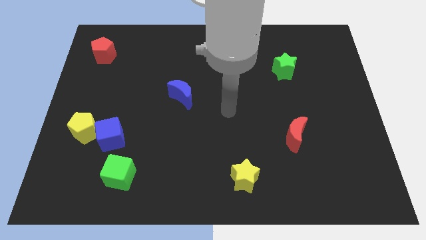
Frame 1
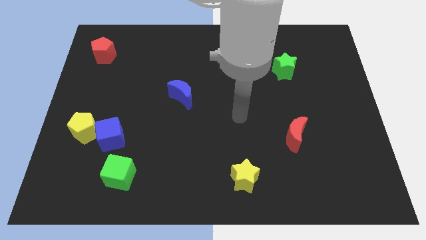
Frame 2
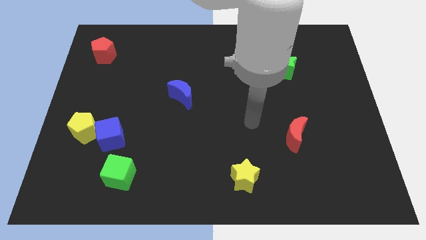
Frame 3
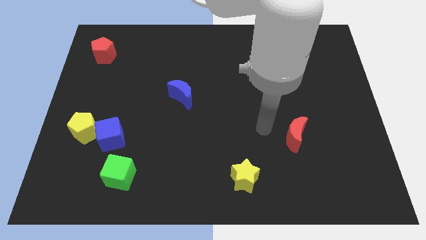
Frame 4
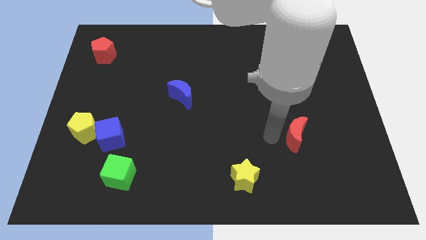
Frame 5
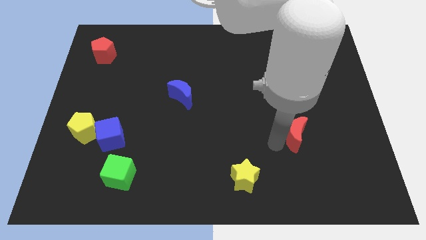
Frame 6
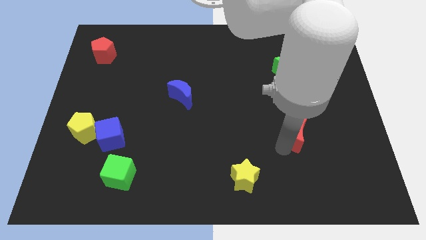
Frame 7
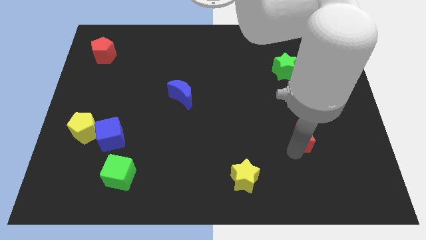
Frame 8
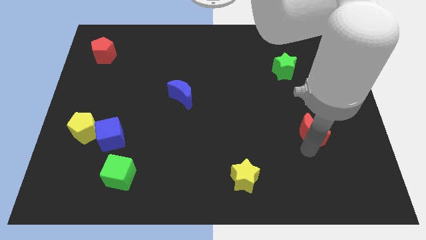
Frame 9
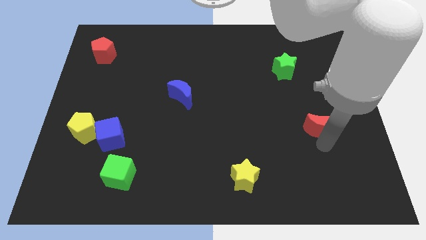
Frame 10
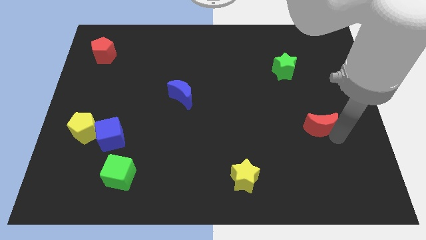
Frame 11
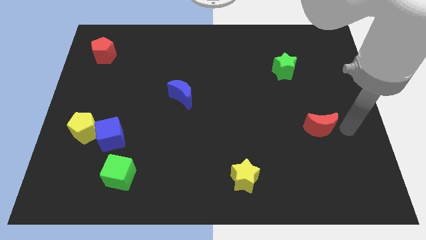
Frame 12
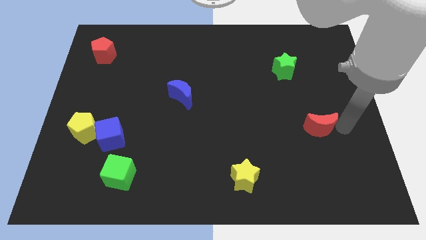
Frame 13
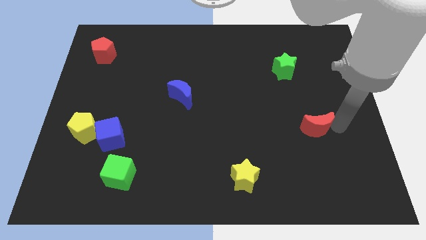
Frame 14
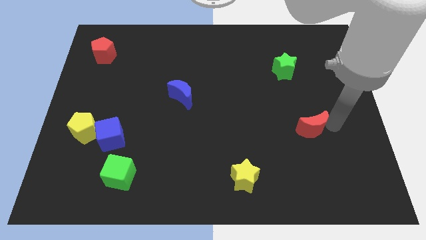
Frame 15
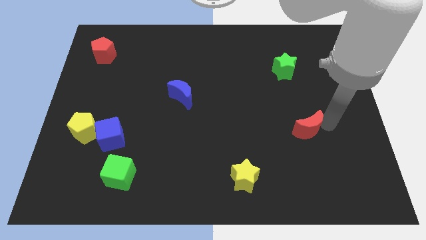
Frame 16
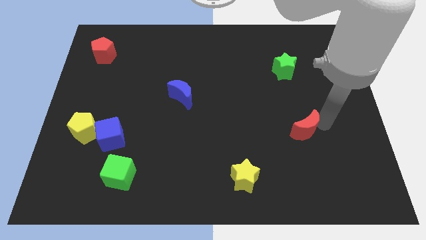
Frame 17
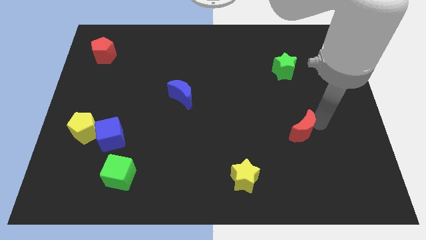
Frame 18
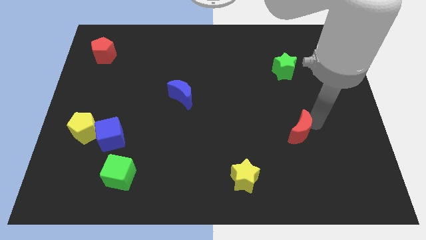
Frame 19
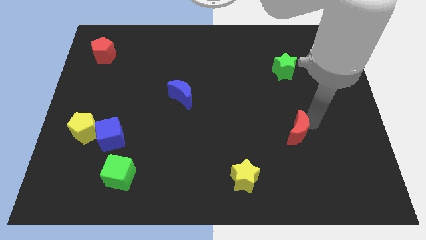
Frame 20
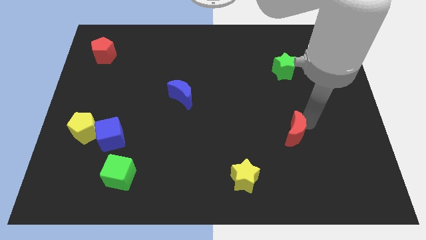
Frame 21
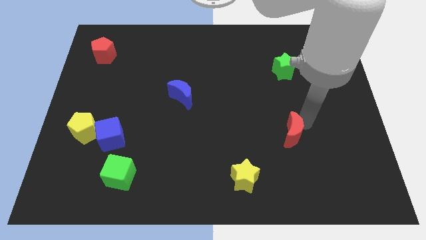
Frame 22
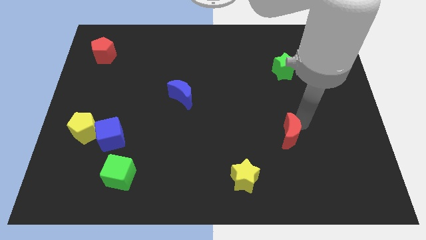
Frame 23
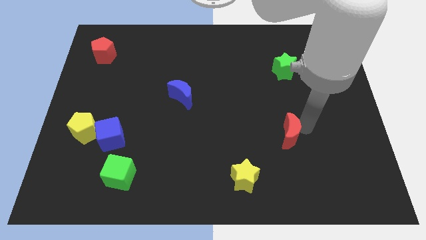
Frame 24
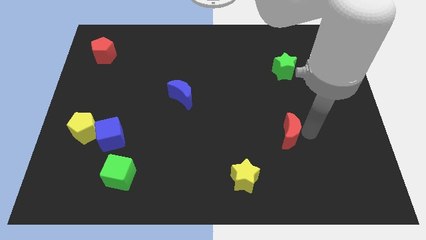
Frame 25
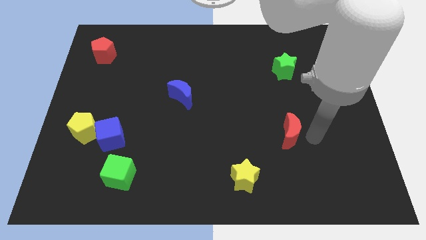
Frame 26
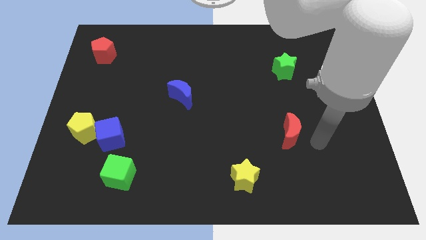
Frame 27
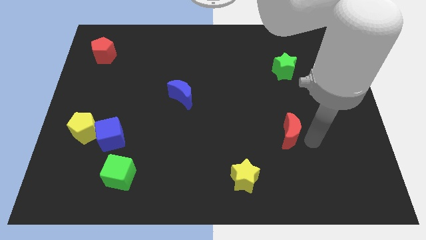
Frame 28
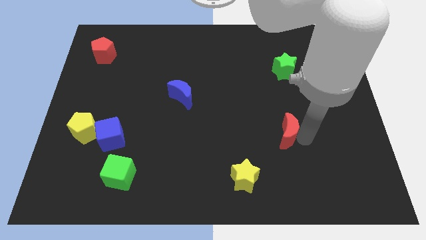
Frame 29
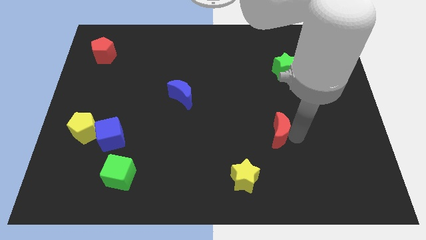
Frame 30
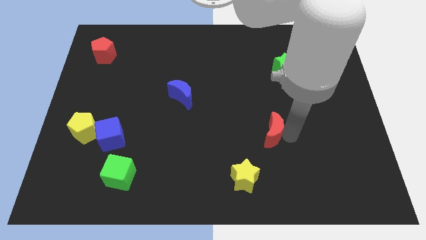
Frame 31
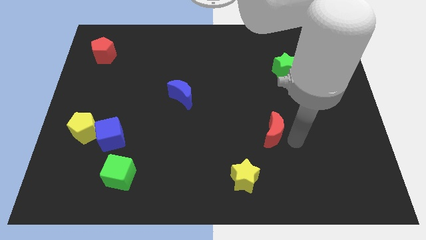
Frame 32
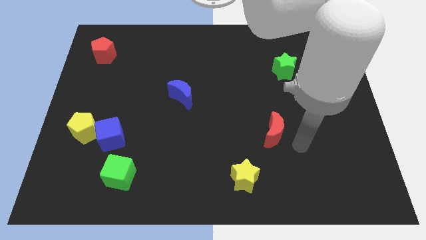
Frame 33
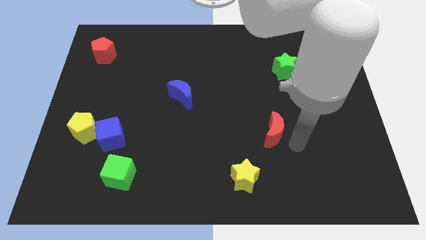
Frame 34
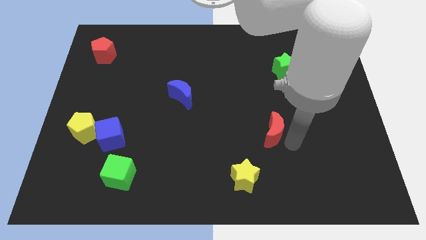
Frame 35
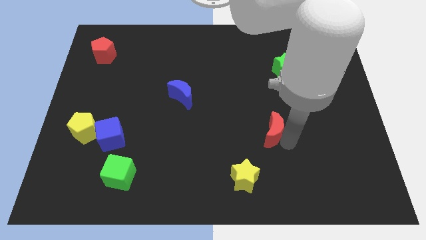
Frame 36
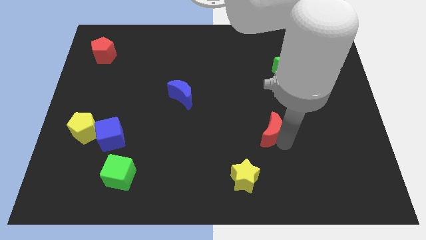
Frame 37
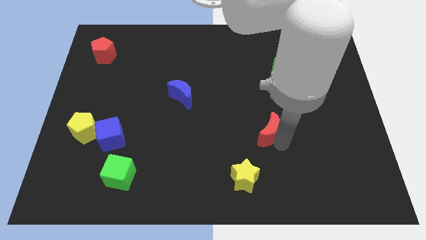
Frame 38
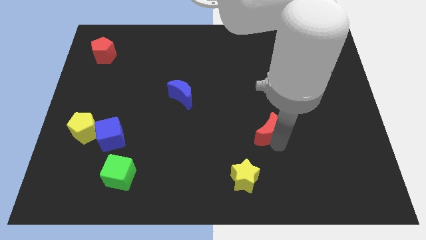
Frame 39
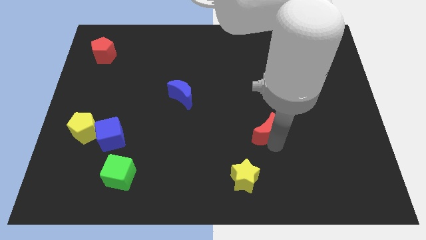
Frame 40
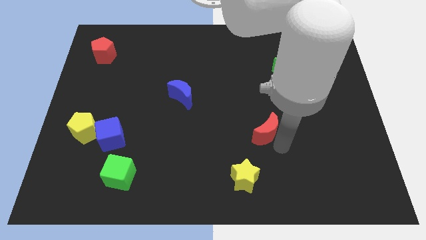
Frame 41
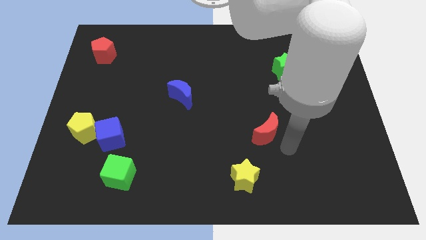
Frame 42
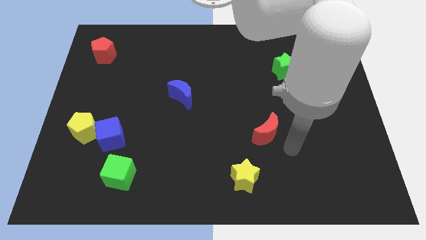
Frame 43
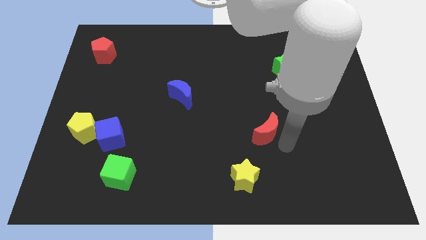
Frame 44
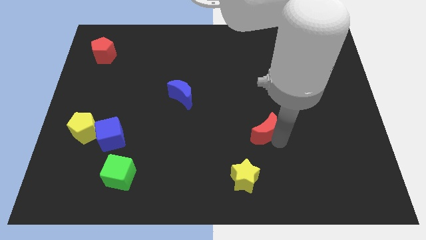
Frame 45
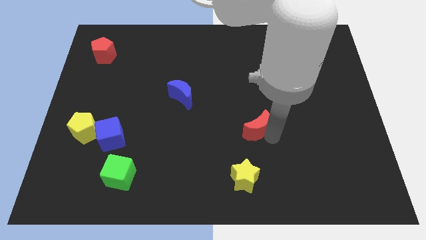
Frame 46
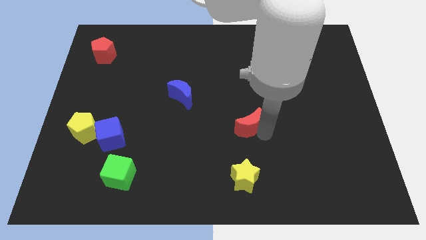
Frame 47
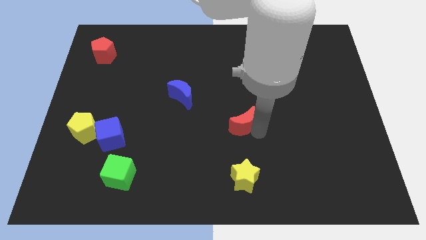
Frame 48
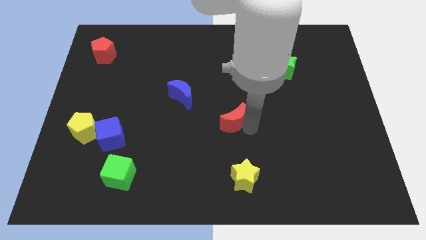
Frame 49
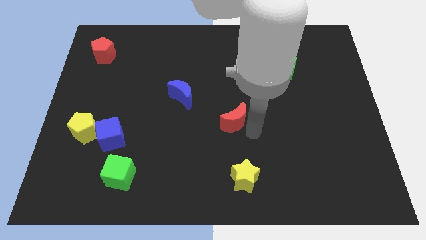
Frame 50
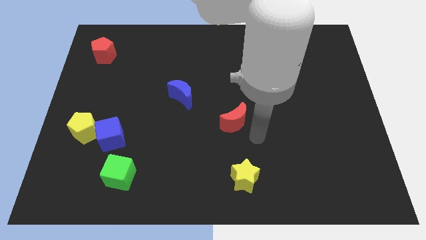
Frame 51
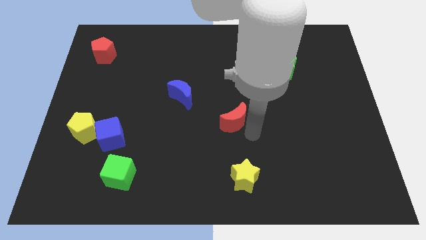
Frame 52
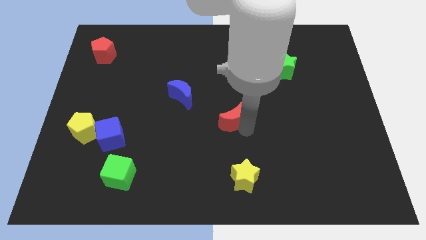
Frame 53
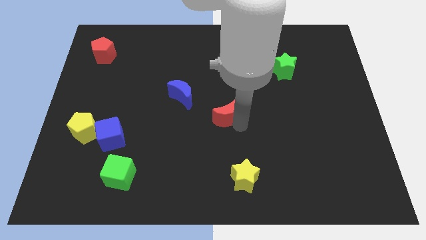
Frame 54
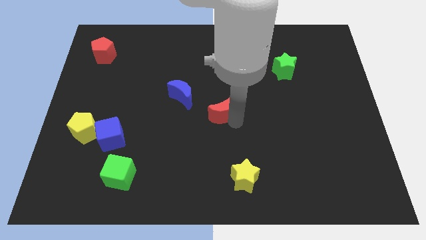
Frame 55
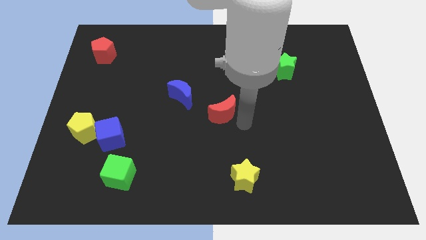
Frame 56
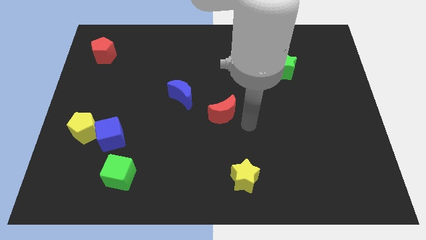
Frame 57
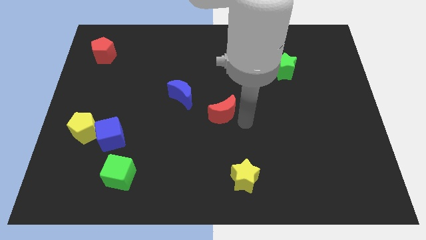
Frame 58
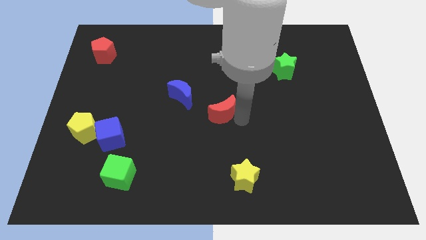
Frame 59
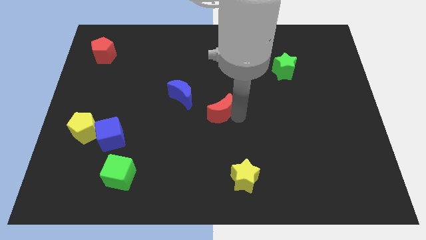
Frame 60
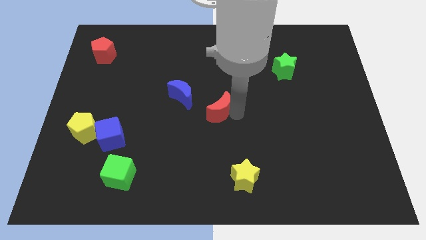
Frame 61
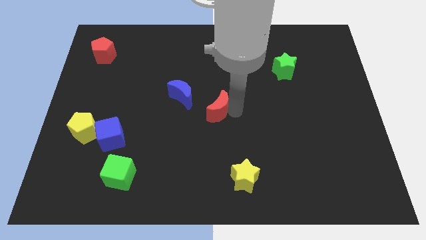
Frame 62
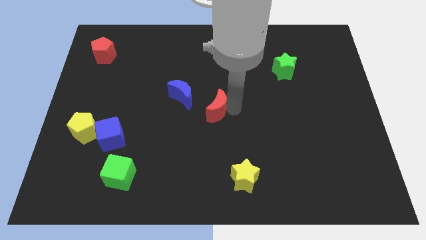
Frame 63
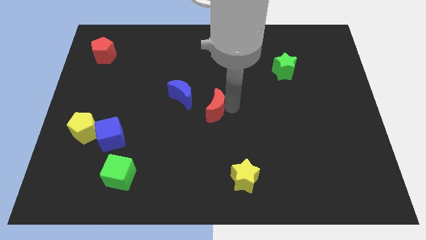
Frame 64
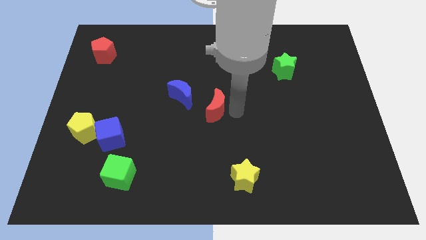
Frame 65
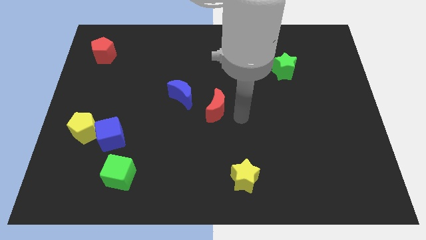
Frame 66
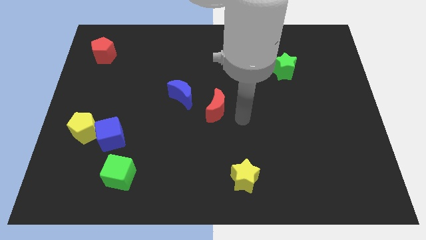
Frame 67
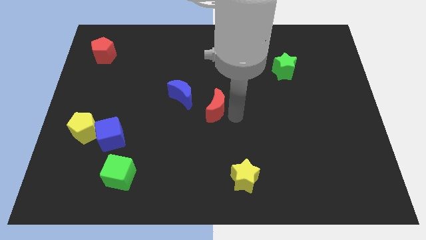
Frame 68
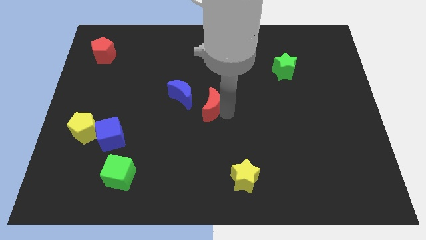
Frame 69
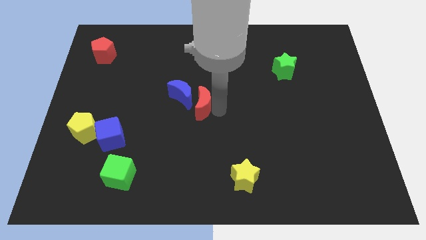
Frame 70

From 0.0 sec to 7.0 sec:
move the red moon towards the blue moon
